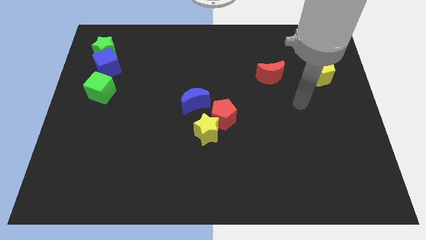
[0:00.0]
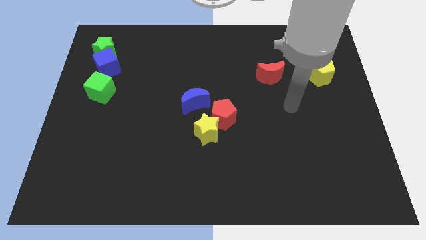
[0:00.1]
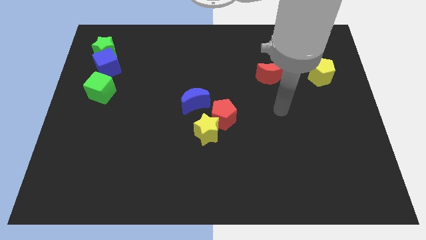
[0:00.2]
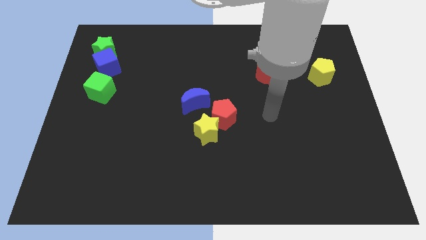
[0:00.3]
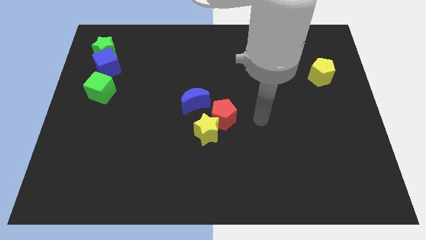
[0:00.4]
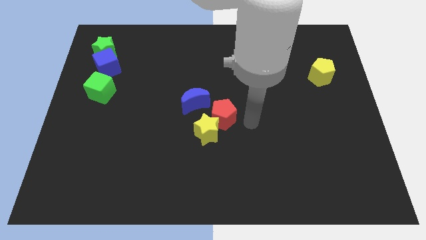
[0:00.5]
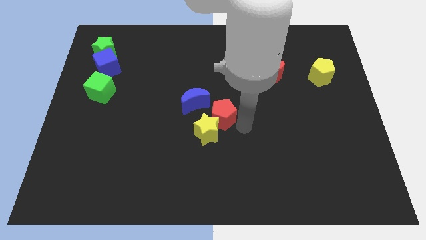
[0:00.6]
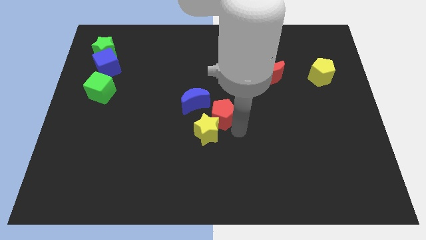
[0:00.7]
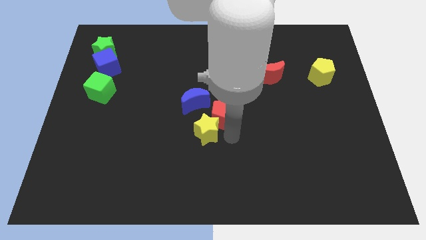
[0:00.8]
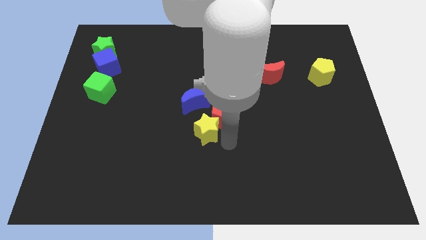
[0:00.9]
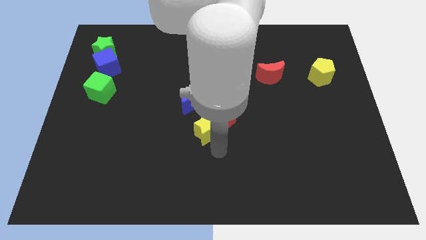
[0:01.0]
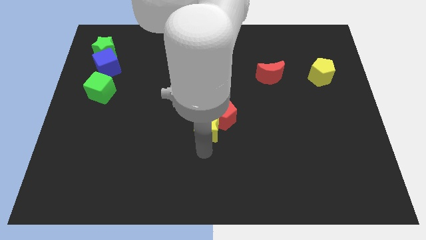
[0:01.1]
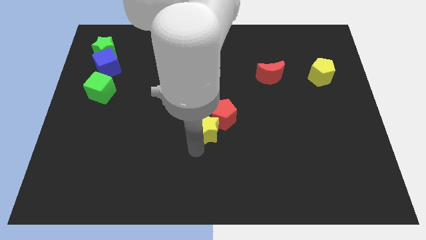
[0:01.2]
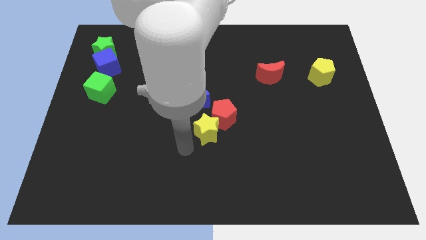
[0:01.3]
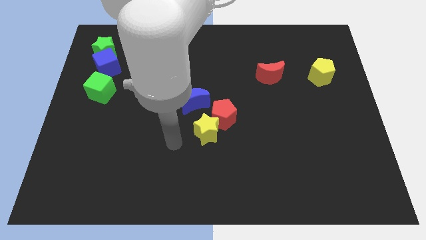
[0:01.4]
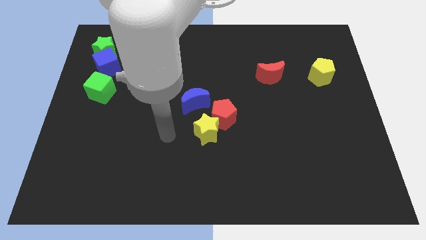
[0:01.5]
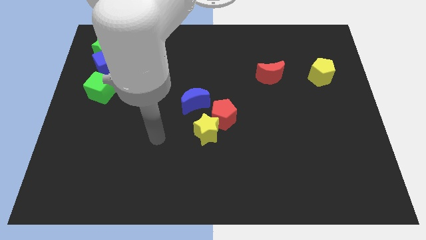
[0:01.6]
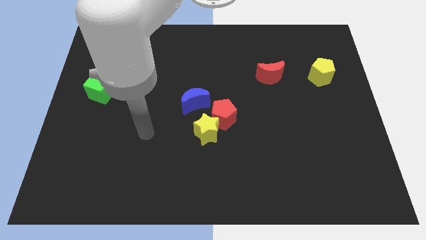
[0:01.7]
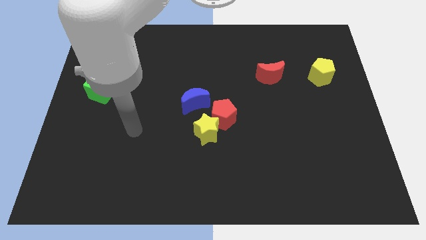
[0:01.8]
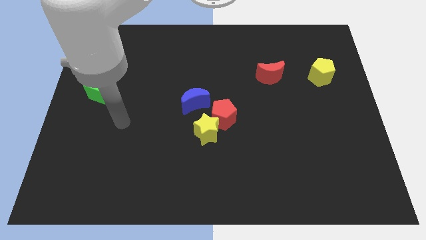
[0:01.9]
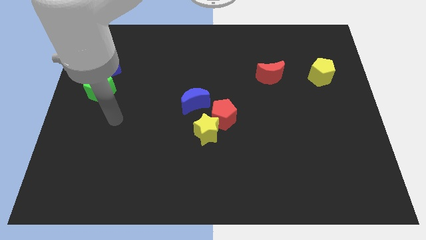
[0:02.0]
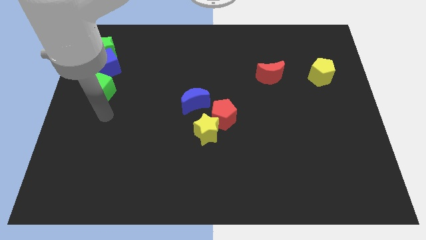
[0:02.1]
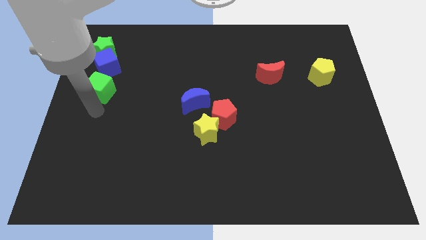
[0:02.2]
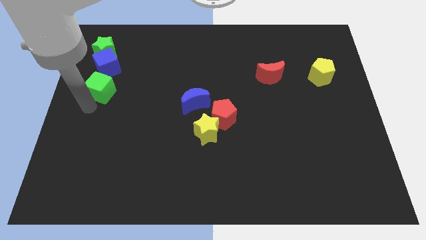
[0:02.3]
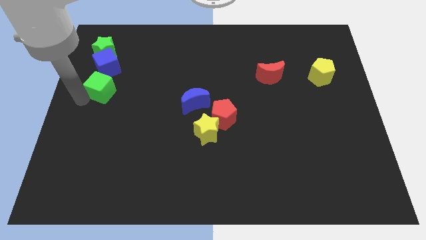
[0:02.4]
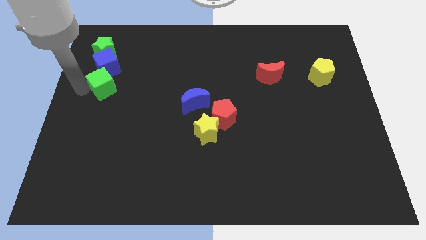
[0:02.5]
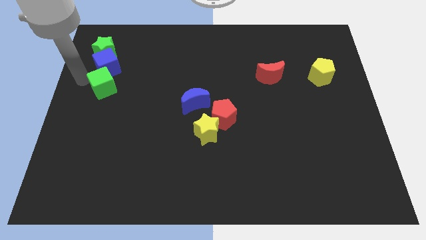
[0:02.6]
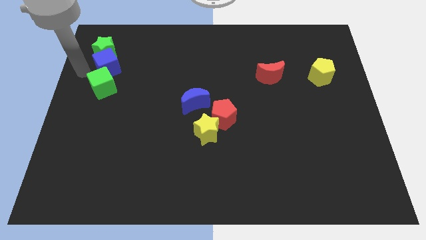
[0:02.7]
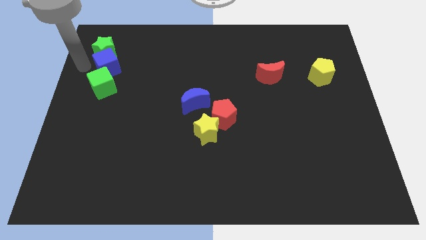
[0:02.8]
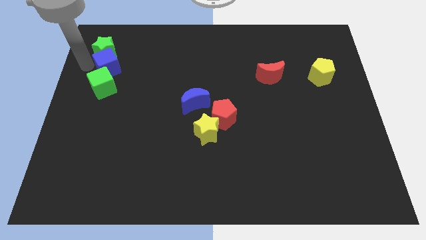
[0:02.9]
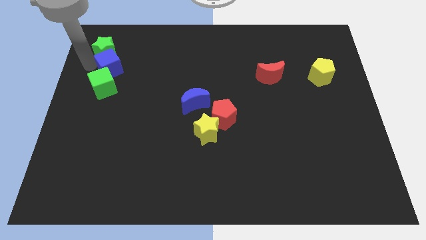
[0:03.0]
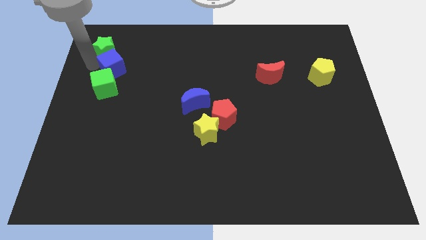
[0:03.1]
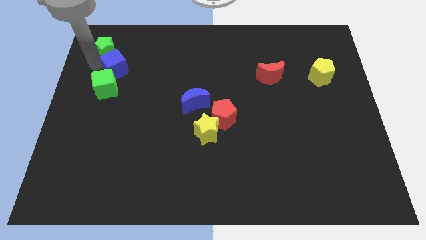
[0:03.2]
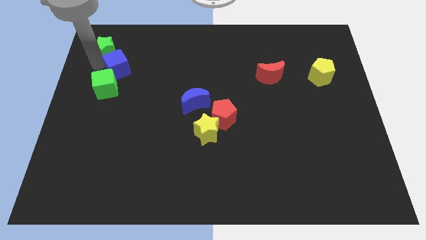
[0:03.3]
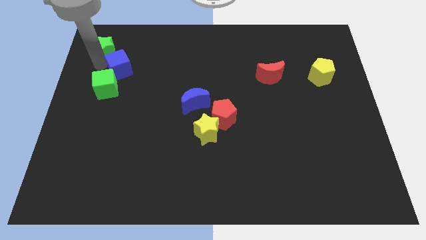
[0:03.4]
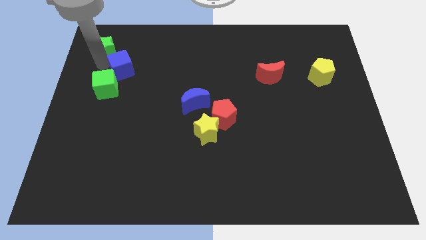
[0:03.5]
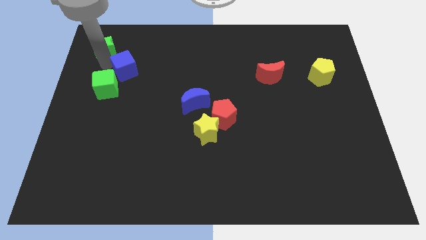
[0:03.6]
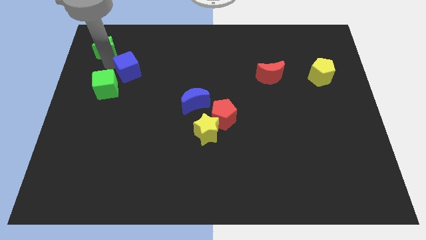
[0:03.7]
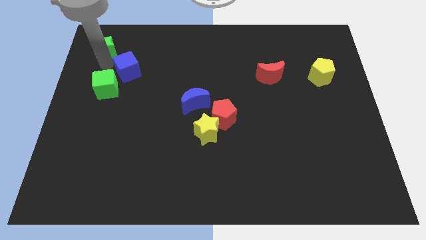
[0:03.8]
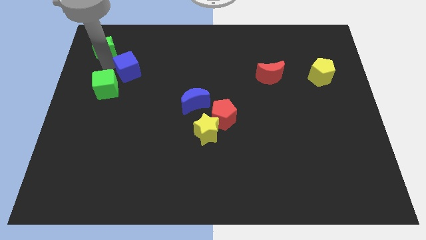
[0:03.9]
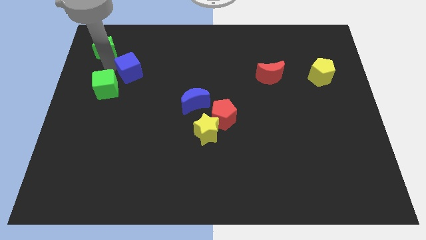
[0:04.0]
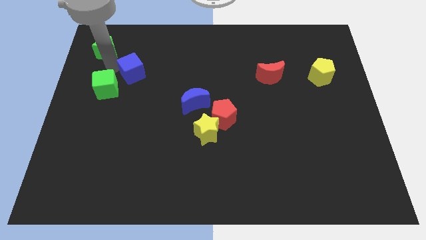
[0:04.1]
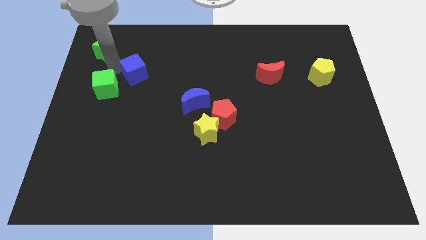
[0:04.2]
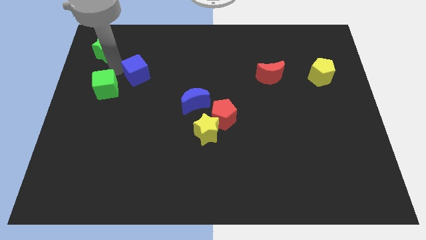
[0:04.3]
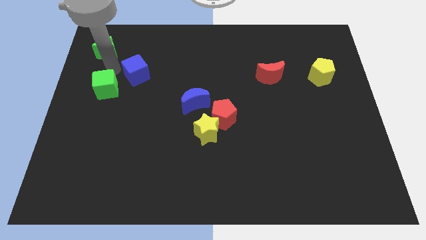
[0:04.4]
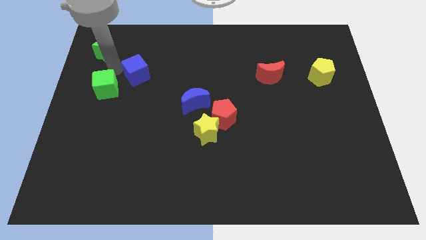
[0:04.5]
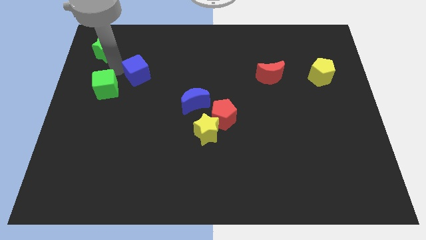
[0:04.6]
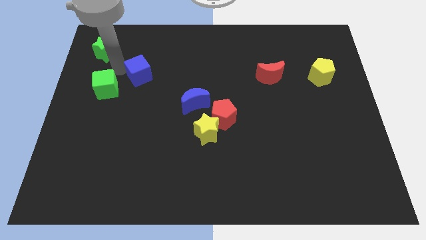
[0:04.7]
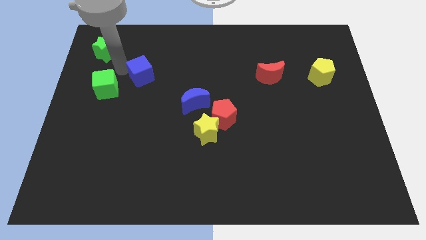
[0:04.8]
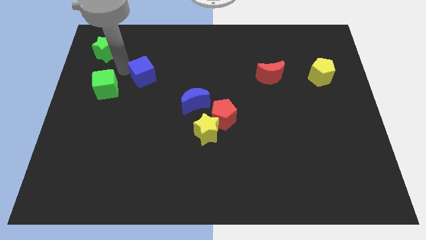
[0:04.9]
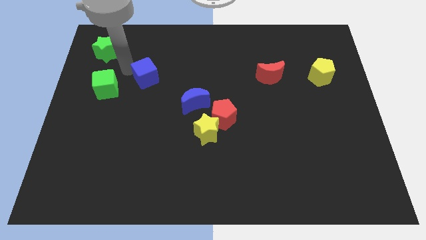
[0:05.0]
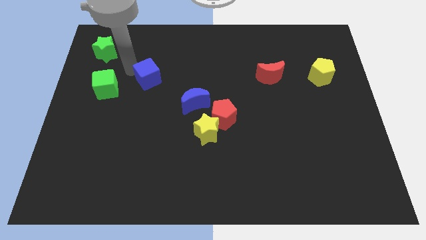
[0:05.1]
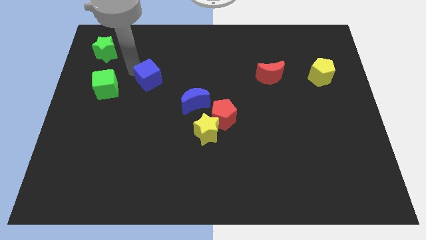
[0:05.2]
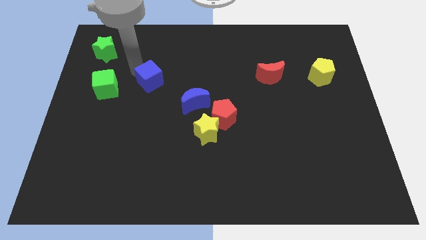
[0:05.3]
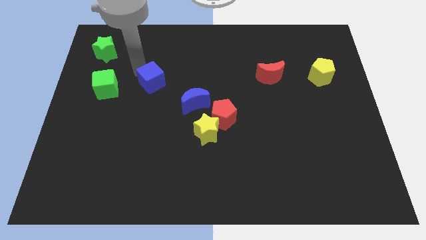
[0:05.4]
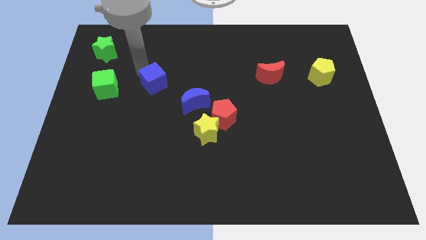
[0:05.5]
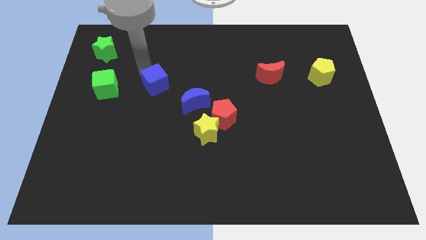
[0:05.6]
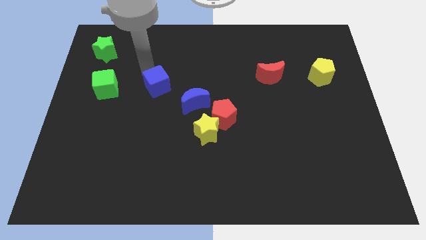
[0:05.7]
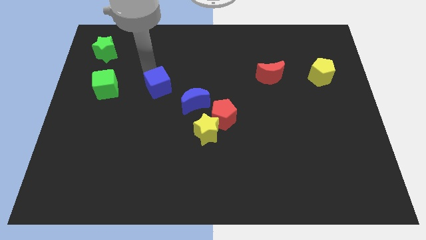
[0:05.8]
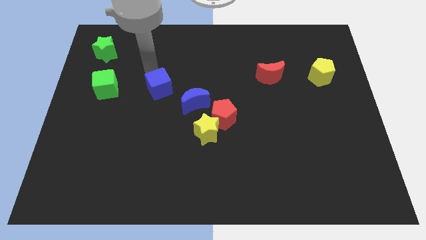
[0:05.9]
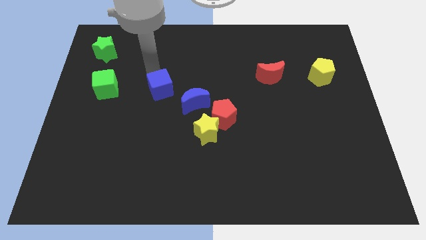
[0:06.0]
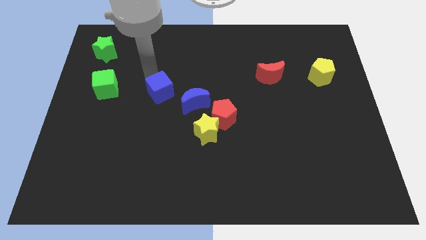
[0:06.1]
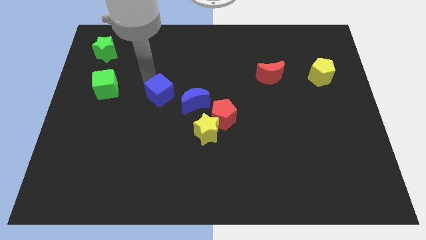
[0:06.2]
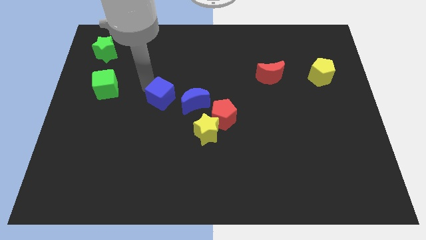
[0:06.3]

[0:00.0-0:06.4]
slide the blue cube to the center of the board
